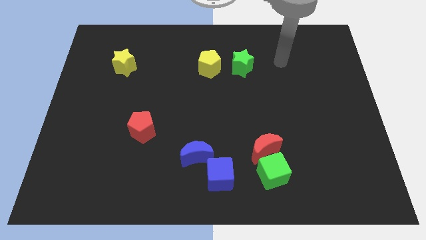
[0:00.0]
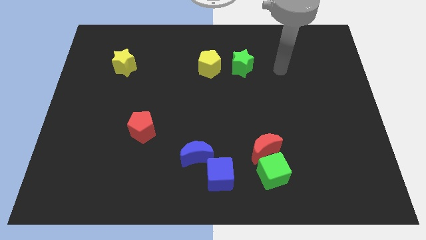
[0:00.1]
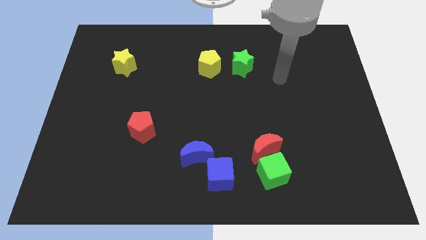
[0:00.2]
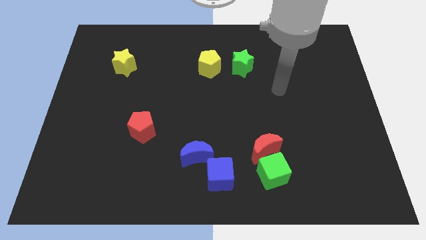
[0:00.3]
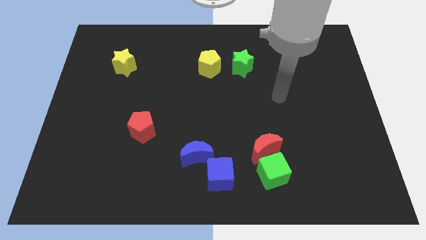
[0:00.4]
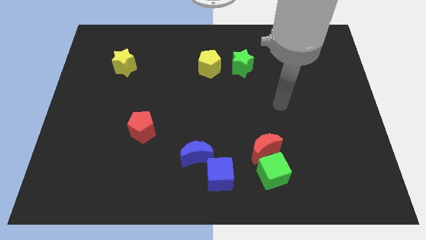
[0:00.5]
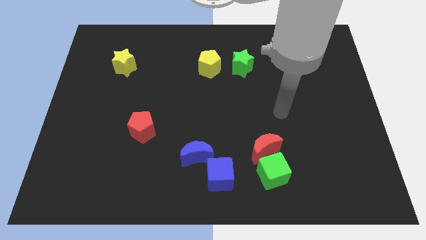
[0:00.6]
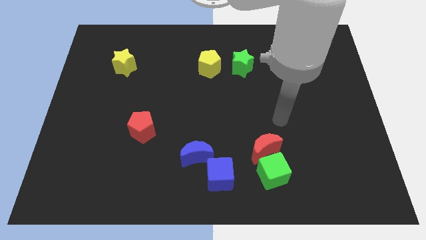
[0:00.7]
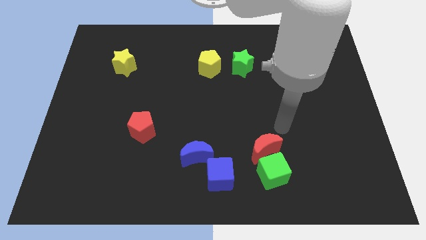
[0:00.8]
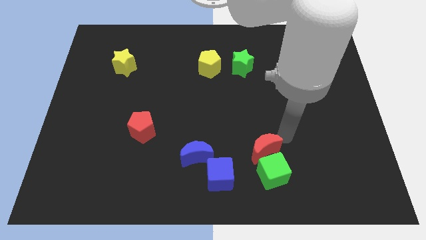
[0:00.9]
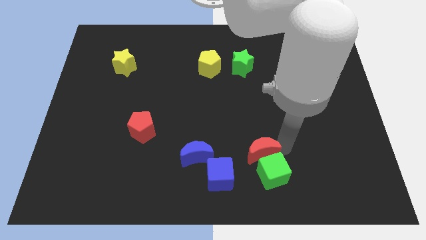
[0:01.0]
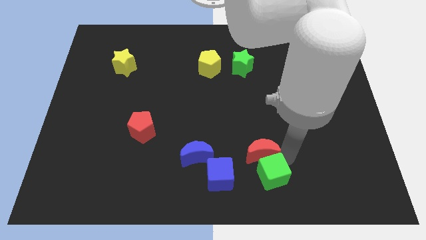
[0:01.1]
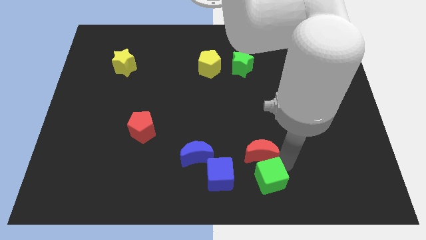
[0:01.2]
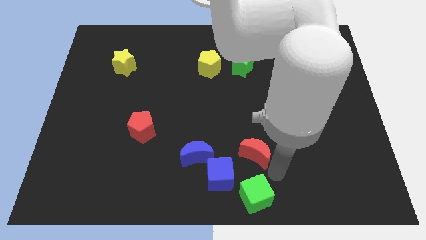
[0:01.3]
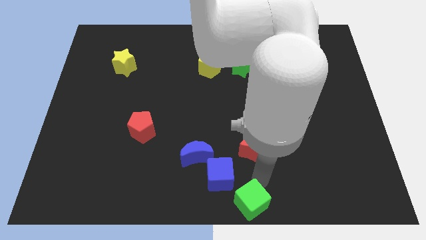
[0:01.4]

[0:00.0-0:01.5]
move the red moon away from the green cube

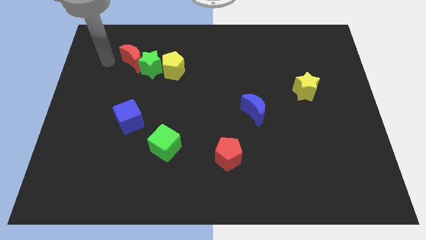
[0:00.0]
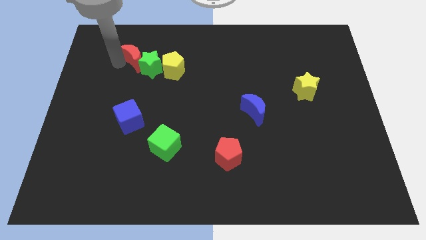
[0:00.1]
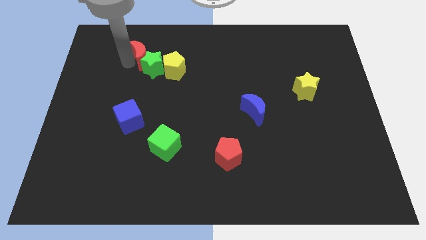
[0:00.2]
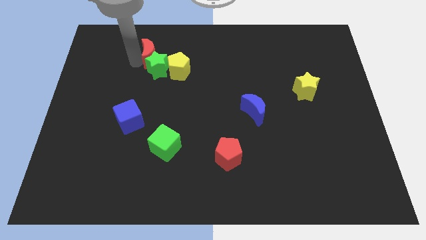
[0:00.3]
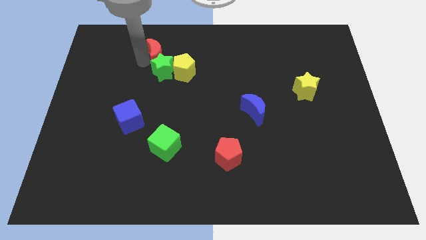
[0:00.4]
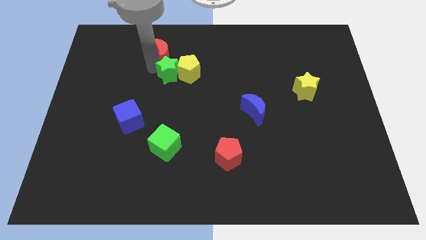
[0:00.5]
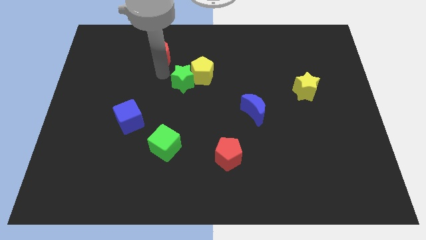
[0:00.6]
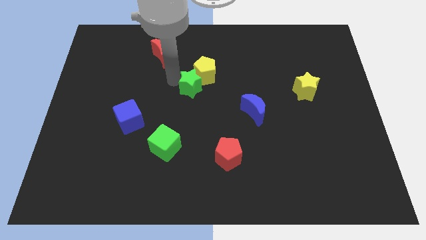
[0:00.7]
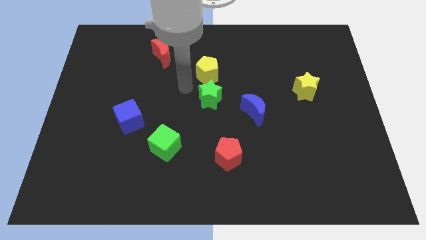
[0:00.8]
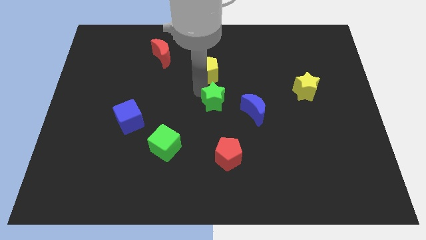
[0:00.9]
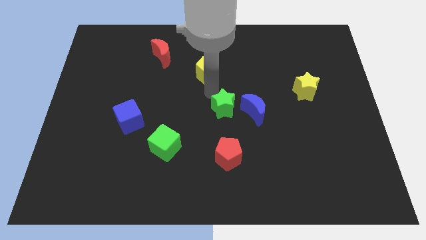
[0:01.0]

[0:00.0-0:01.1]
pull the yellow pentagon apart from the green star

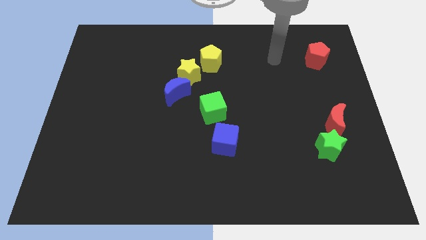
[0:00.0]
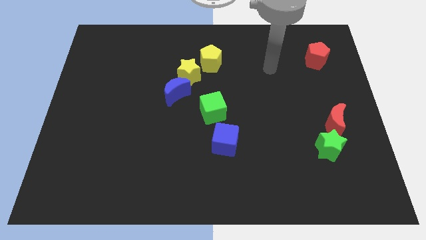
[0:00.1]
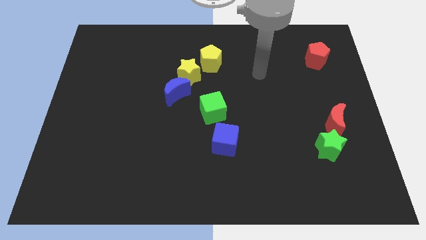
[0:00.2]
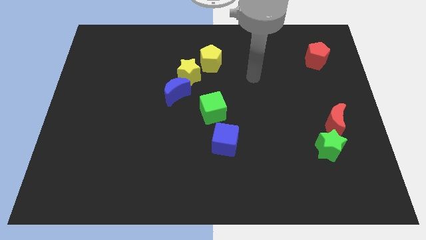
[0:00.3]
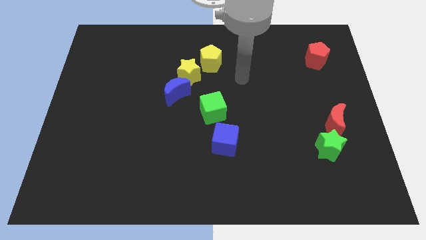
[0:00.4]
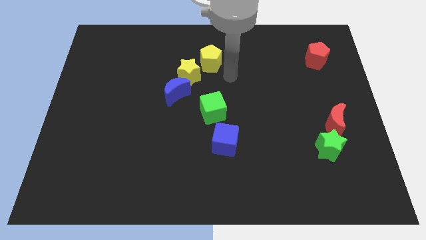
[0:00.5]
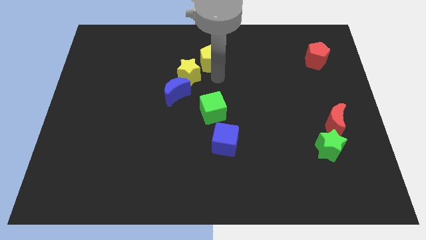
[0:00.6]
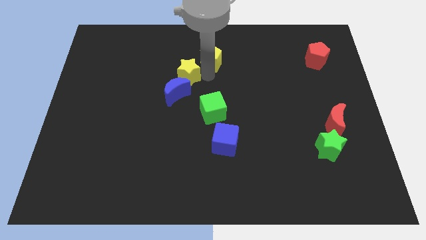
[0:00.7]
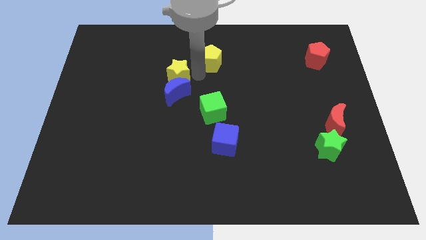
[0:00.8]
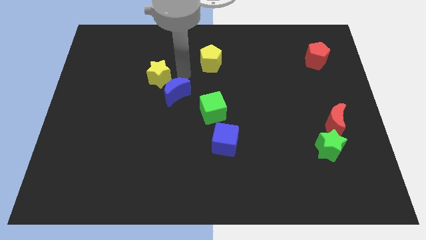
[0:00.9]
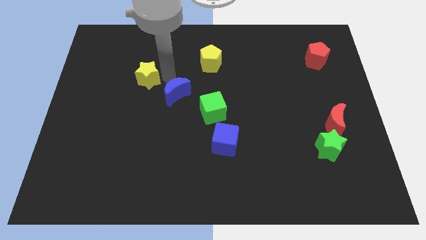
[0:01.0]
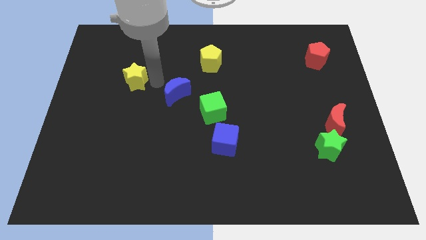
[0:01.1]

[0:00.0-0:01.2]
separate the blue moon from the yellow star

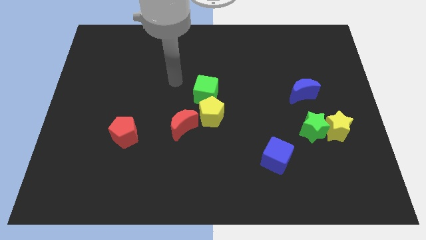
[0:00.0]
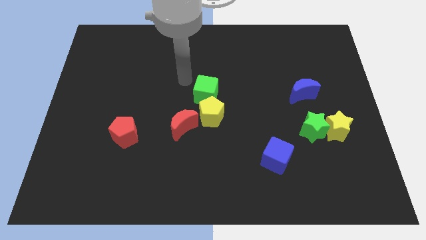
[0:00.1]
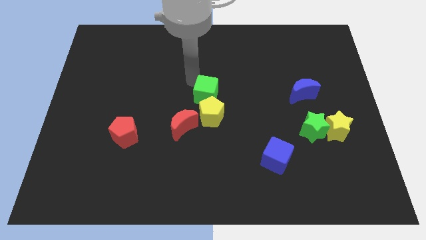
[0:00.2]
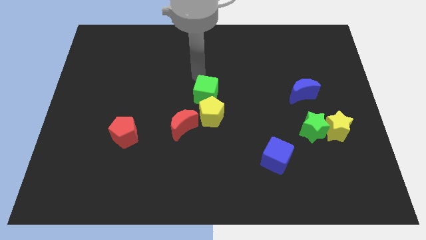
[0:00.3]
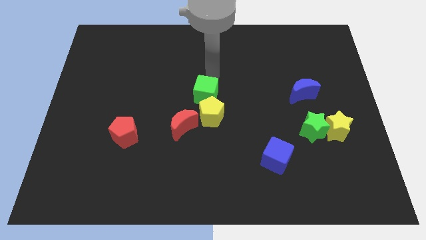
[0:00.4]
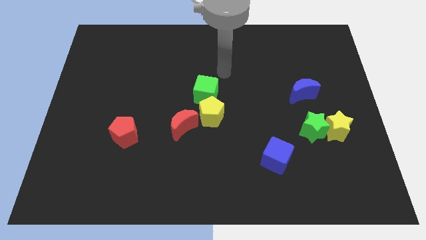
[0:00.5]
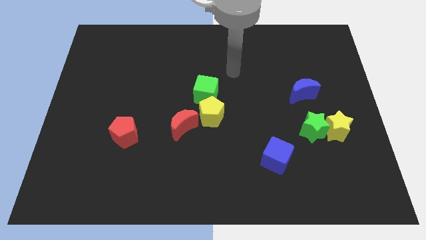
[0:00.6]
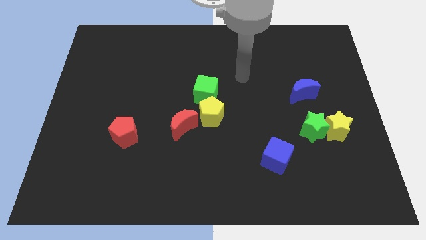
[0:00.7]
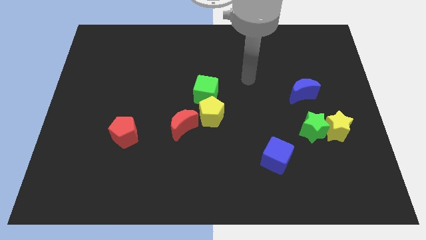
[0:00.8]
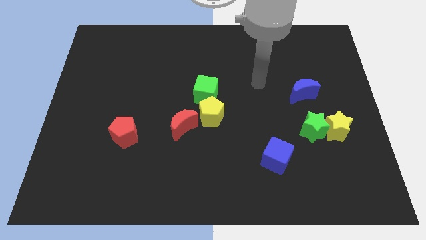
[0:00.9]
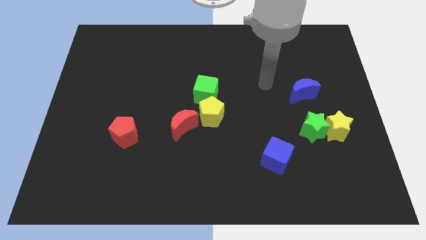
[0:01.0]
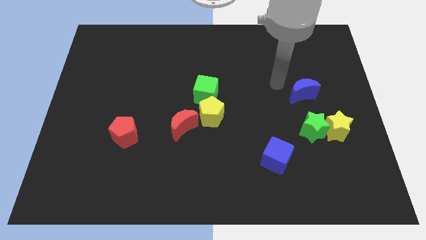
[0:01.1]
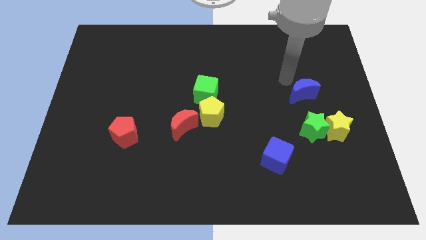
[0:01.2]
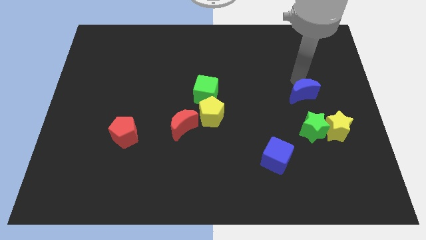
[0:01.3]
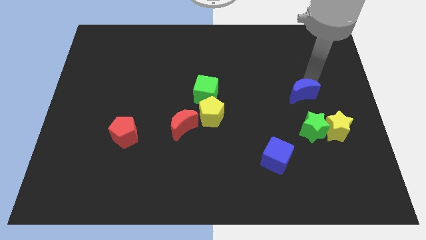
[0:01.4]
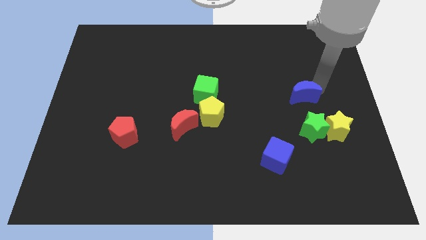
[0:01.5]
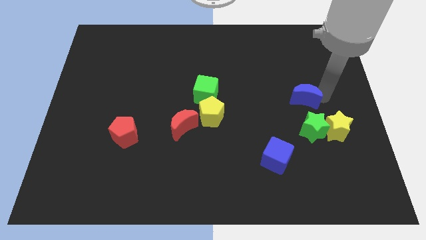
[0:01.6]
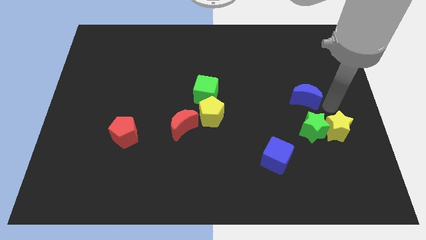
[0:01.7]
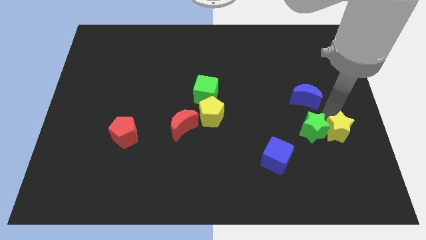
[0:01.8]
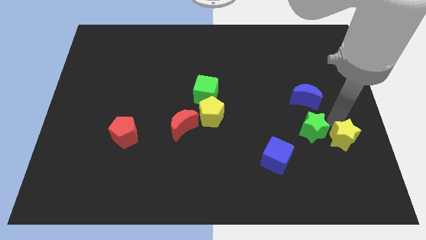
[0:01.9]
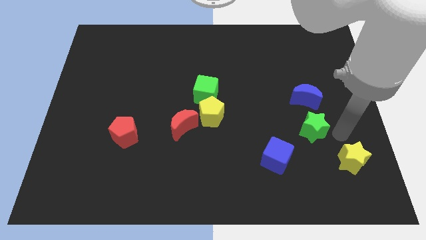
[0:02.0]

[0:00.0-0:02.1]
separate the green star from the yellow star

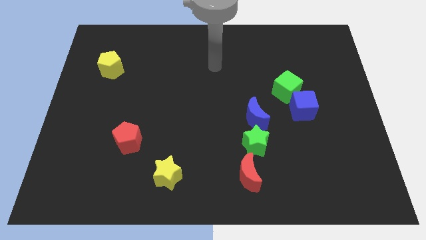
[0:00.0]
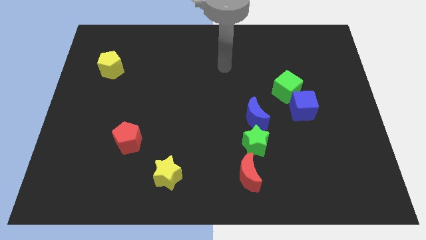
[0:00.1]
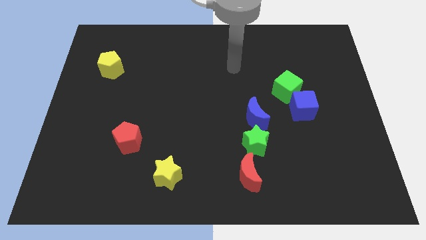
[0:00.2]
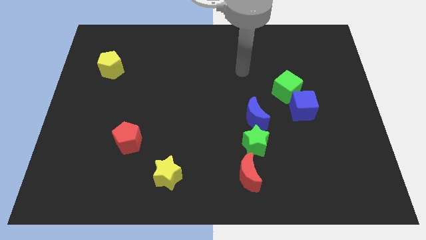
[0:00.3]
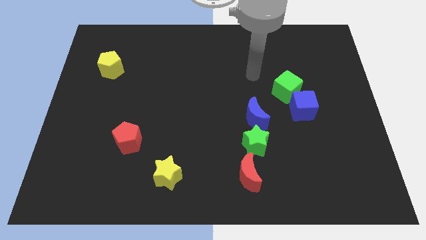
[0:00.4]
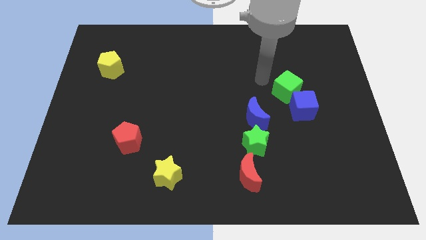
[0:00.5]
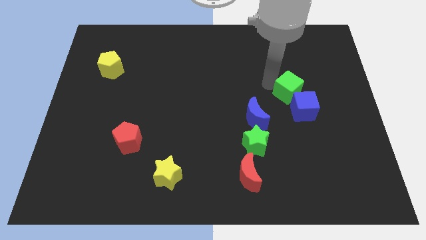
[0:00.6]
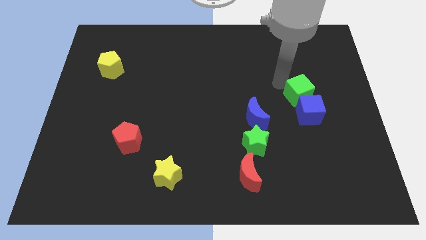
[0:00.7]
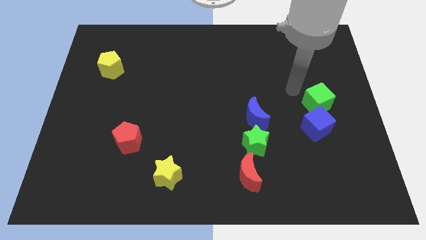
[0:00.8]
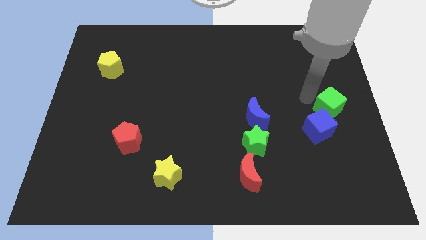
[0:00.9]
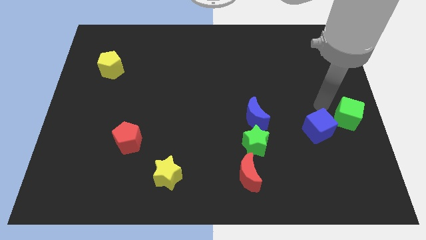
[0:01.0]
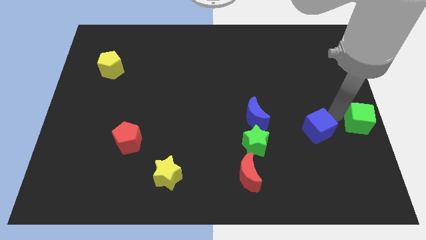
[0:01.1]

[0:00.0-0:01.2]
pull the blue cube apart from the green cube

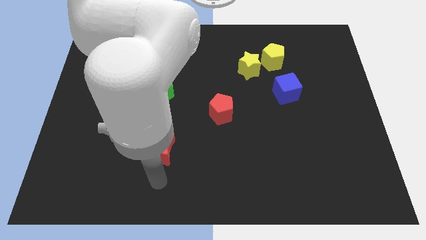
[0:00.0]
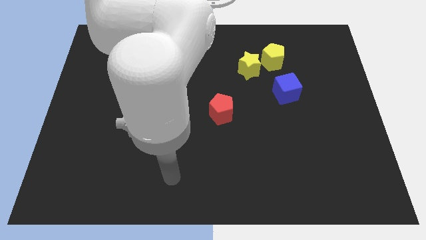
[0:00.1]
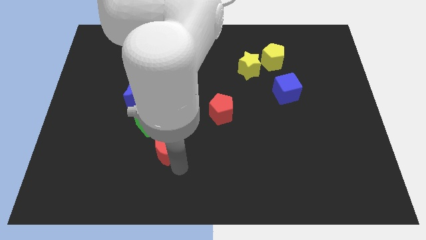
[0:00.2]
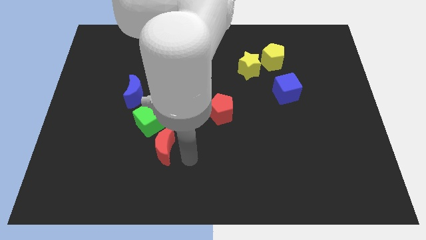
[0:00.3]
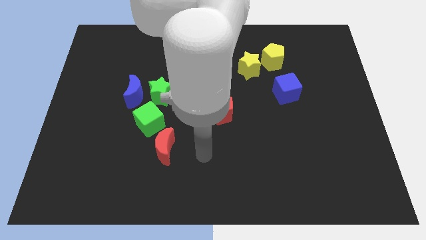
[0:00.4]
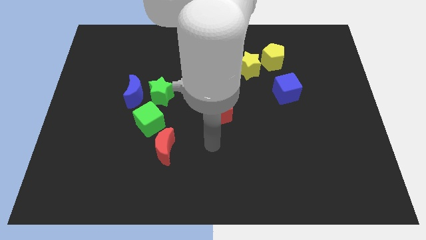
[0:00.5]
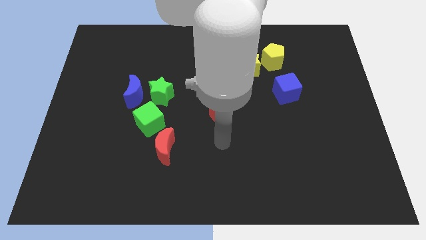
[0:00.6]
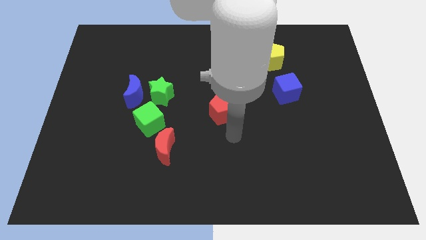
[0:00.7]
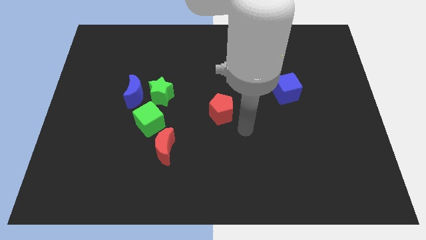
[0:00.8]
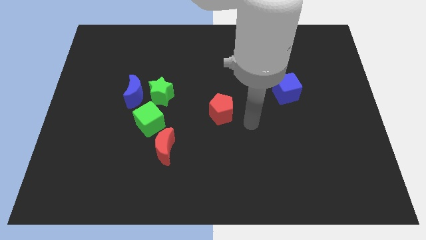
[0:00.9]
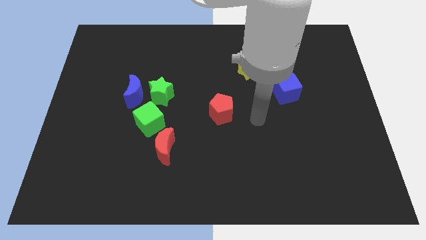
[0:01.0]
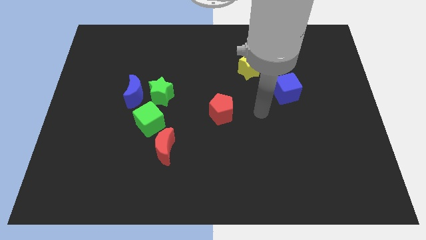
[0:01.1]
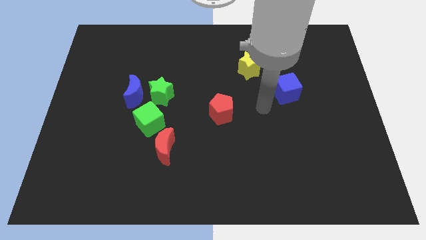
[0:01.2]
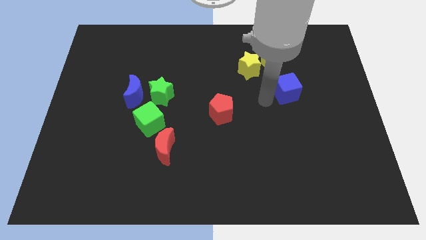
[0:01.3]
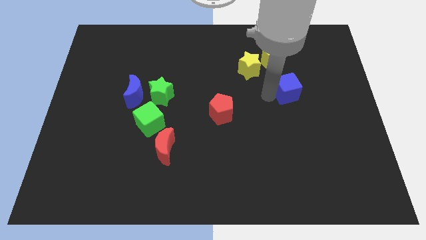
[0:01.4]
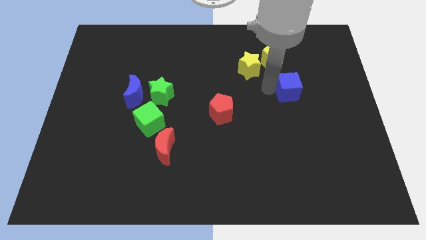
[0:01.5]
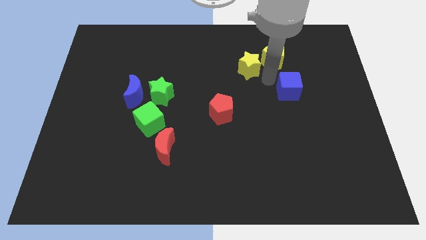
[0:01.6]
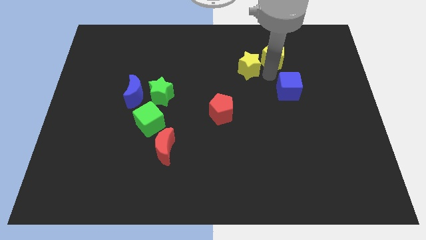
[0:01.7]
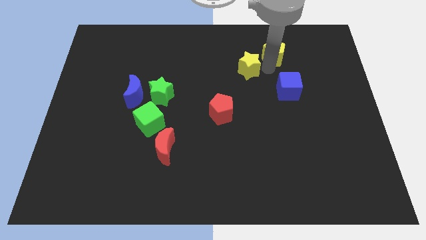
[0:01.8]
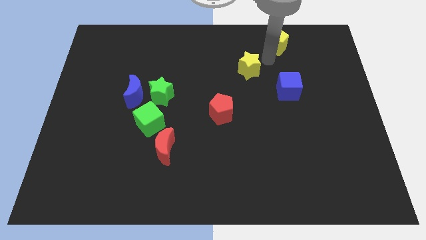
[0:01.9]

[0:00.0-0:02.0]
pull the yellow star apart from the yellow pentagon

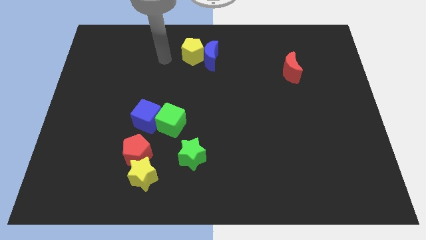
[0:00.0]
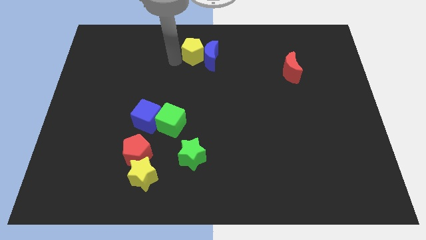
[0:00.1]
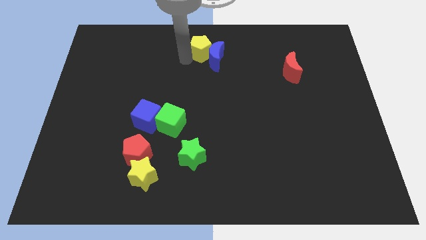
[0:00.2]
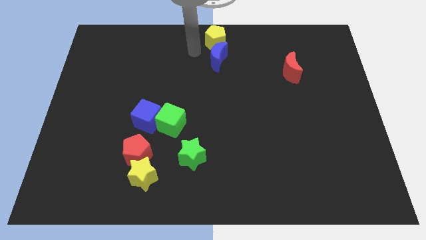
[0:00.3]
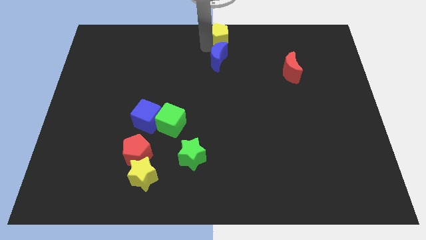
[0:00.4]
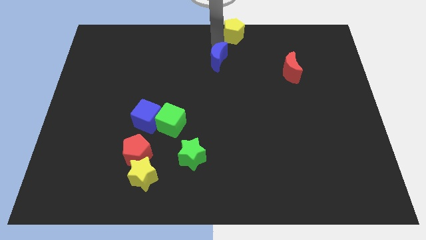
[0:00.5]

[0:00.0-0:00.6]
pull the blue moon apart from the yellow pentagon
